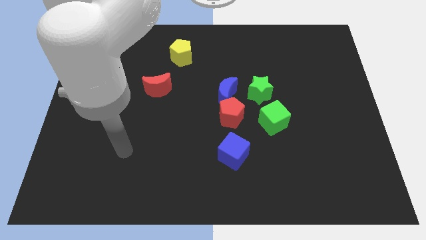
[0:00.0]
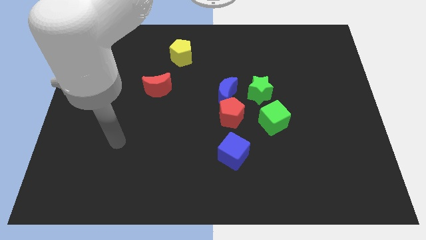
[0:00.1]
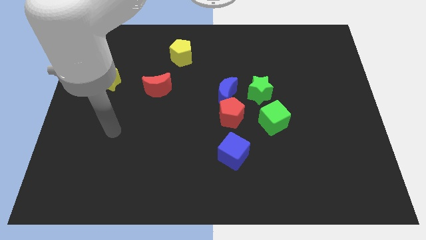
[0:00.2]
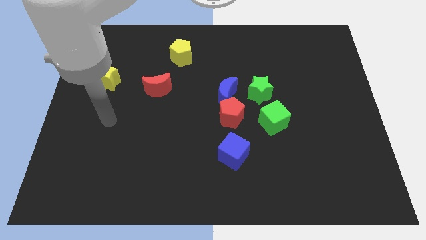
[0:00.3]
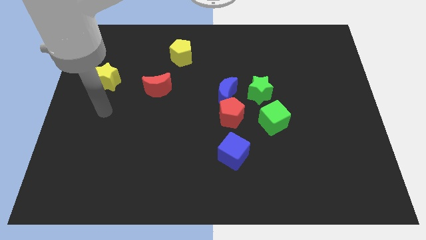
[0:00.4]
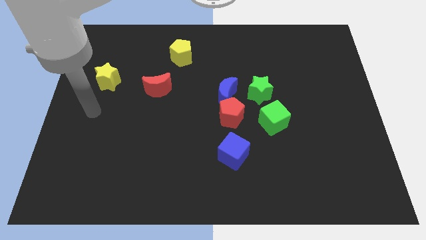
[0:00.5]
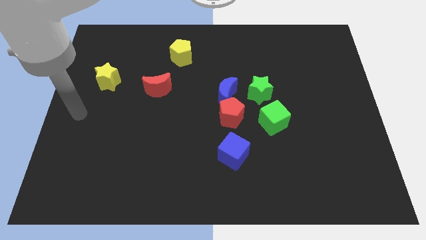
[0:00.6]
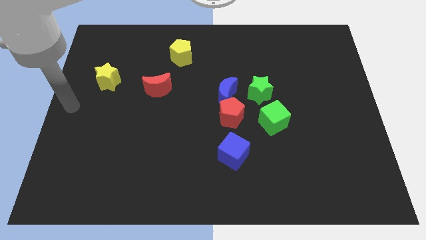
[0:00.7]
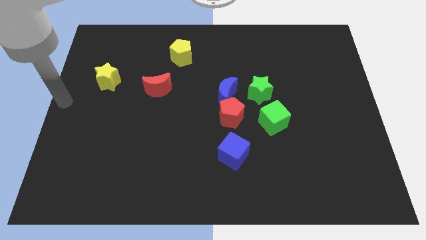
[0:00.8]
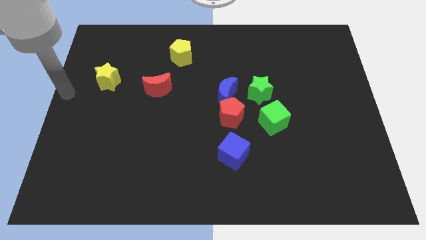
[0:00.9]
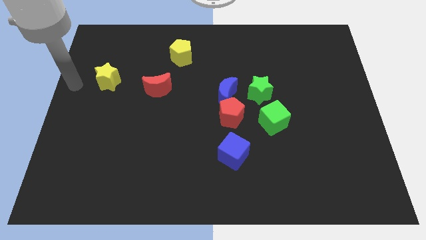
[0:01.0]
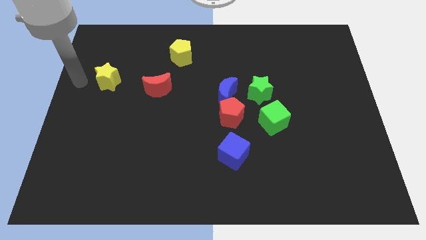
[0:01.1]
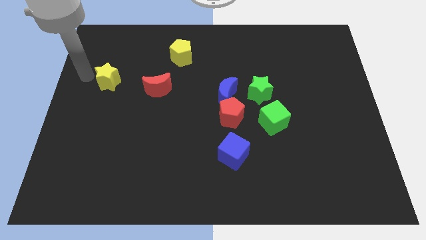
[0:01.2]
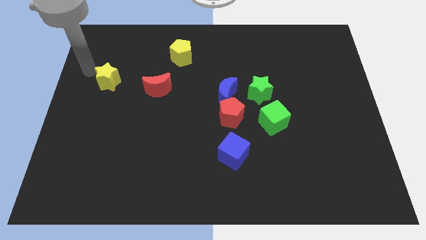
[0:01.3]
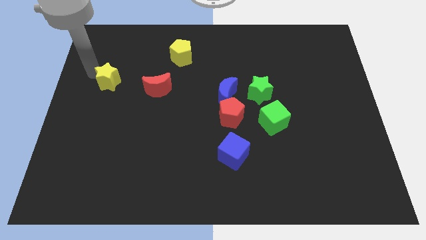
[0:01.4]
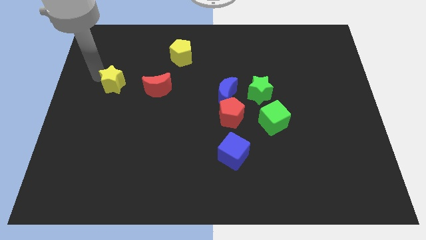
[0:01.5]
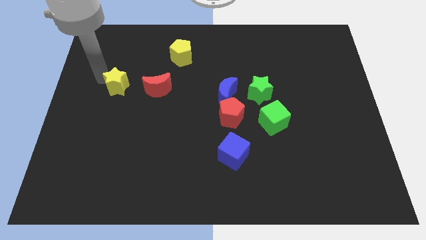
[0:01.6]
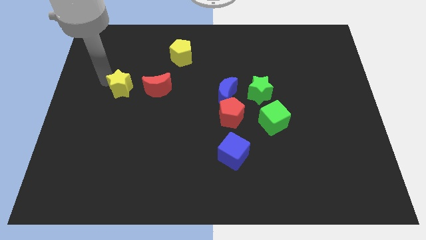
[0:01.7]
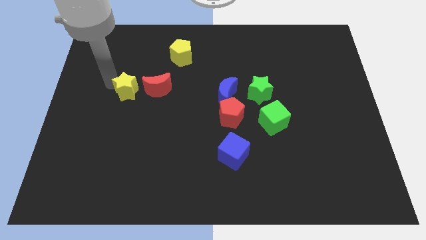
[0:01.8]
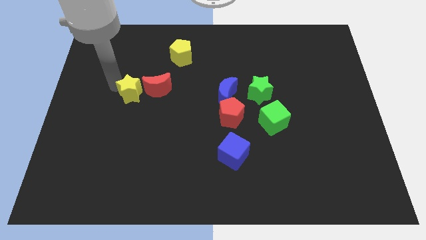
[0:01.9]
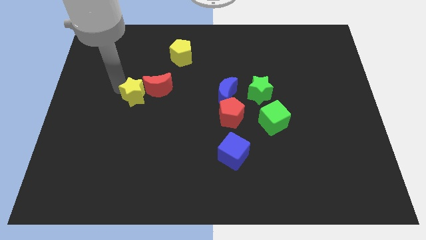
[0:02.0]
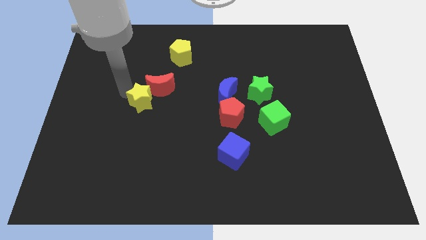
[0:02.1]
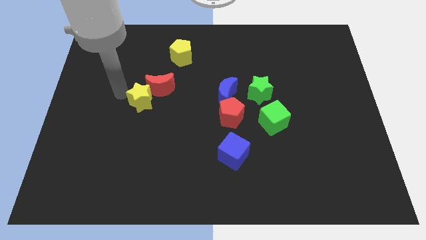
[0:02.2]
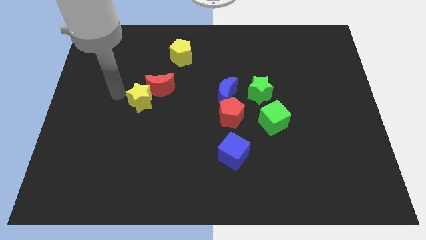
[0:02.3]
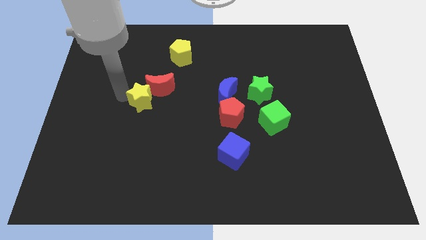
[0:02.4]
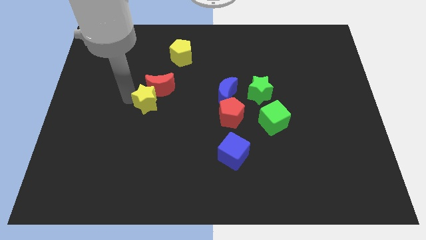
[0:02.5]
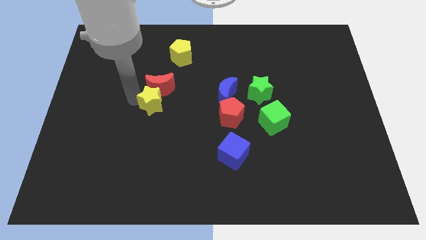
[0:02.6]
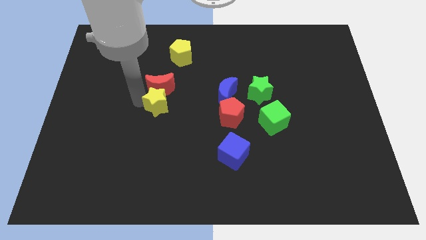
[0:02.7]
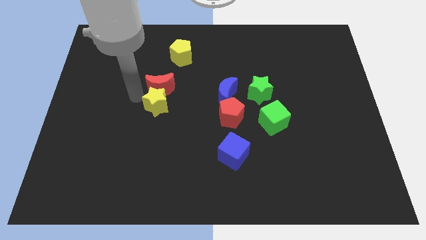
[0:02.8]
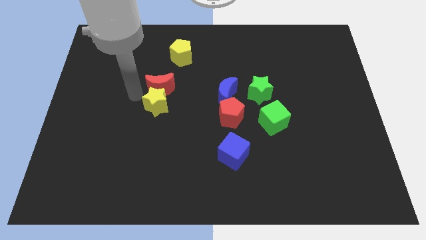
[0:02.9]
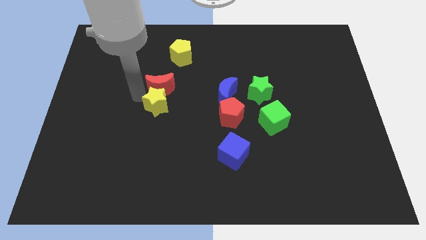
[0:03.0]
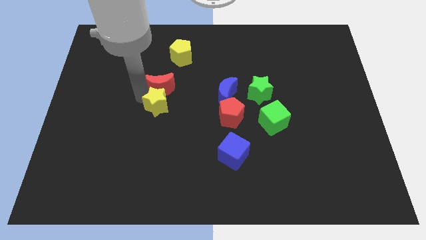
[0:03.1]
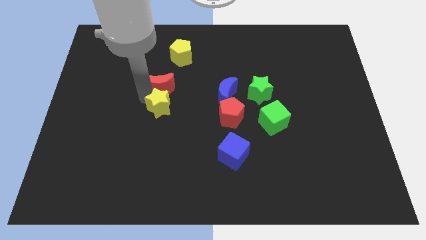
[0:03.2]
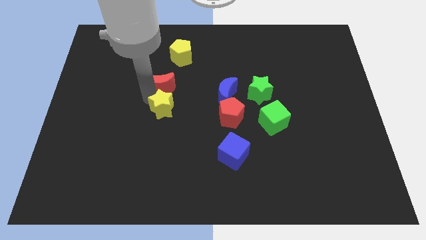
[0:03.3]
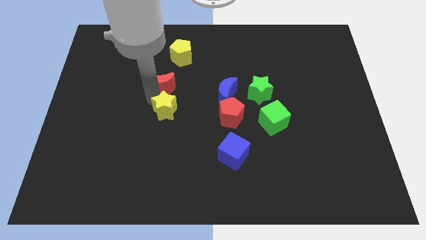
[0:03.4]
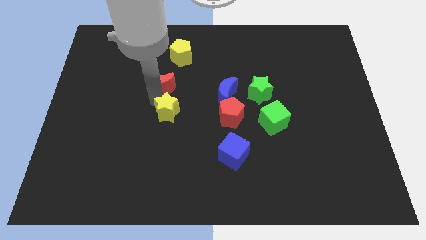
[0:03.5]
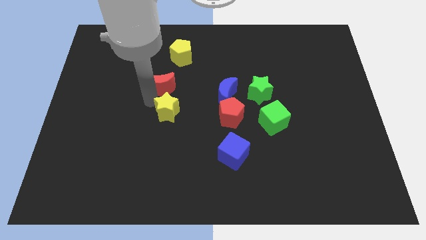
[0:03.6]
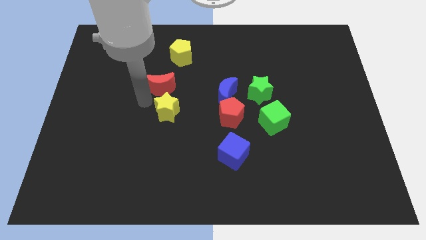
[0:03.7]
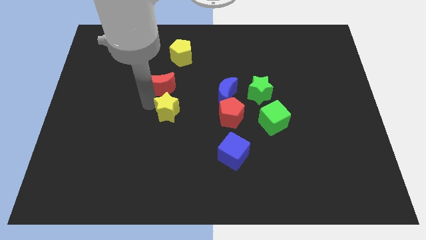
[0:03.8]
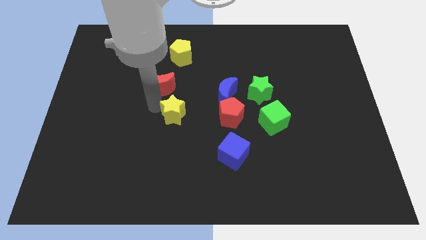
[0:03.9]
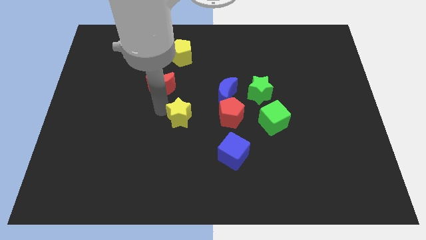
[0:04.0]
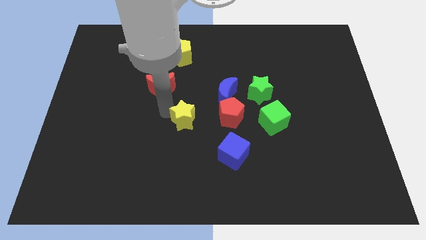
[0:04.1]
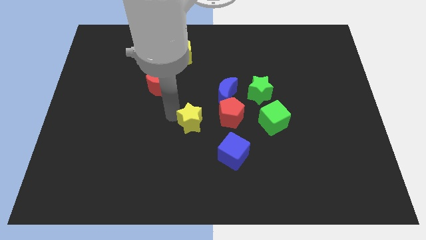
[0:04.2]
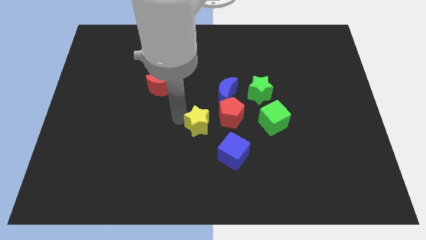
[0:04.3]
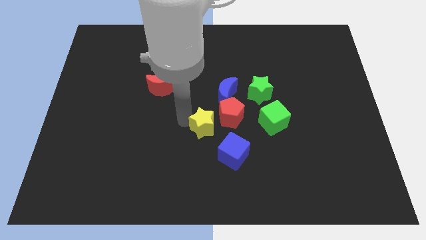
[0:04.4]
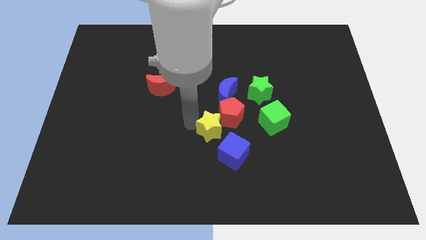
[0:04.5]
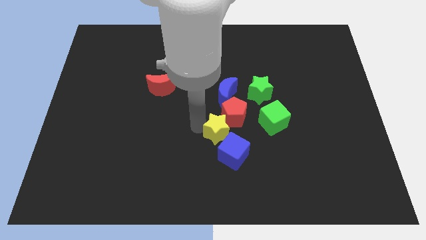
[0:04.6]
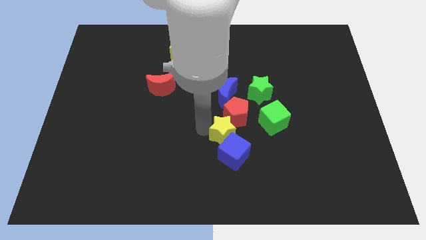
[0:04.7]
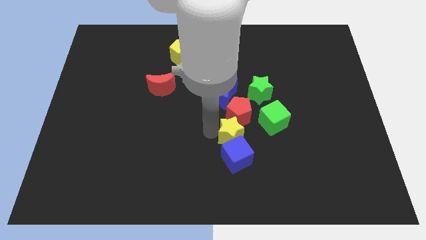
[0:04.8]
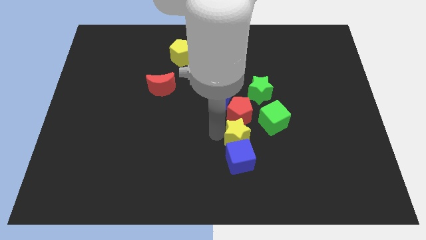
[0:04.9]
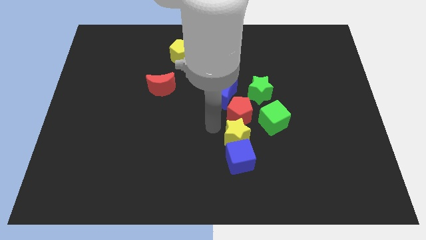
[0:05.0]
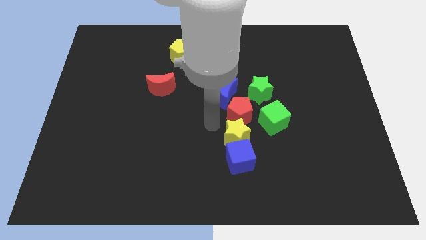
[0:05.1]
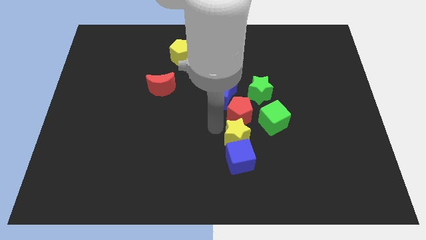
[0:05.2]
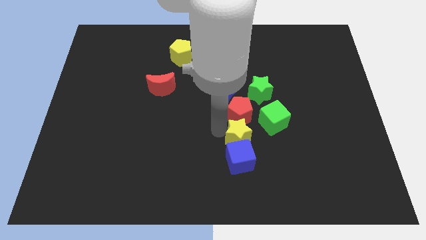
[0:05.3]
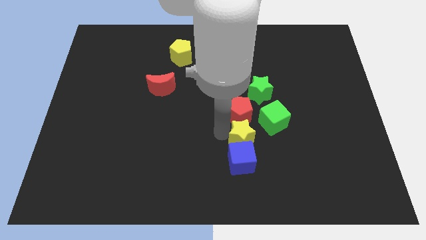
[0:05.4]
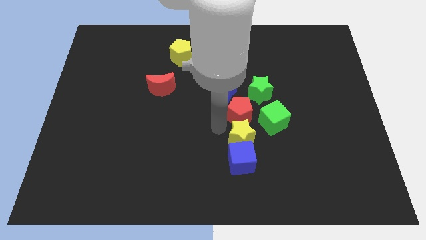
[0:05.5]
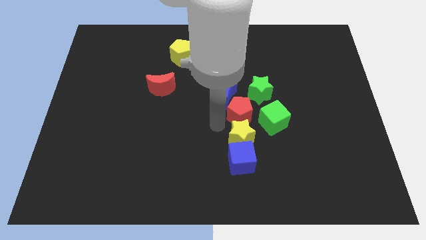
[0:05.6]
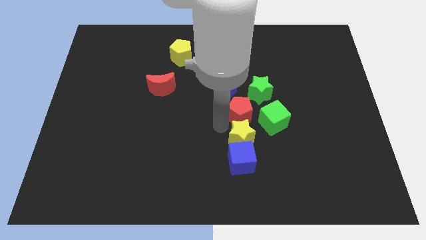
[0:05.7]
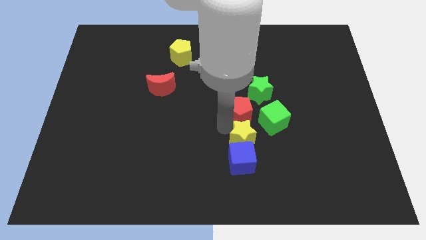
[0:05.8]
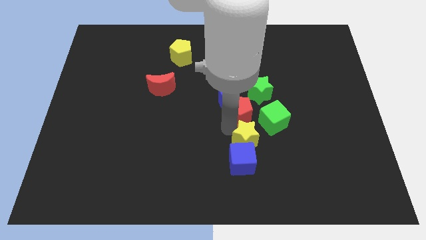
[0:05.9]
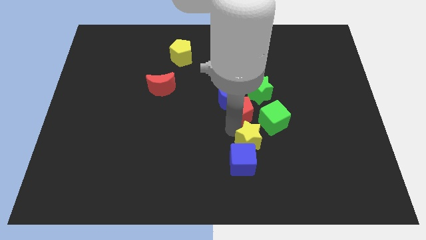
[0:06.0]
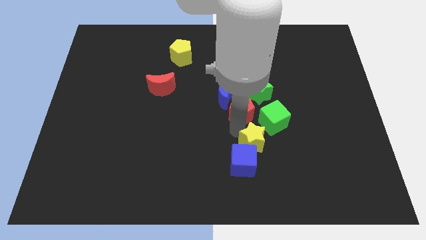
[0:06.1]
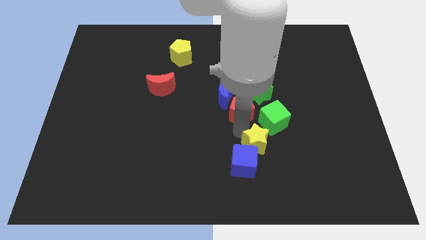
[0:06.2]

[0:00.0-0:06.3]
move the yellow star to the bottom of the green cube
